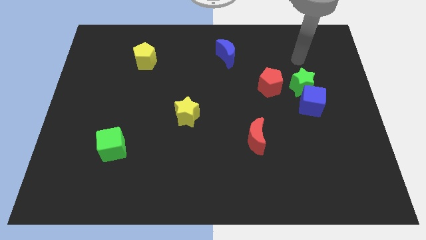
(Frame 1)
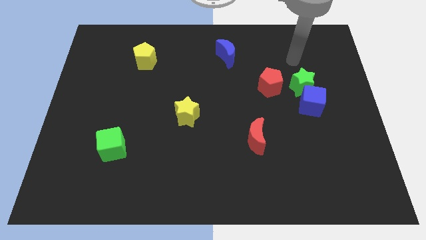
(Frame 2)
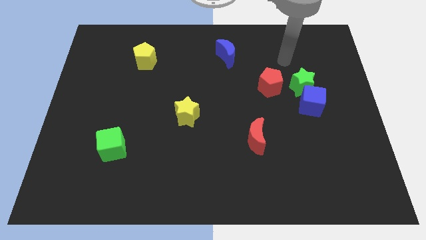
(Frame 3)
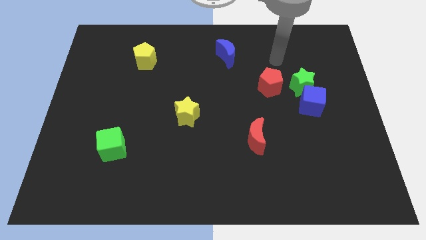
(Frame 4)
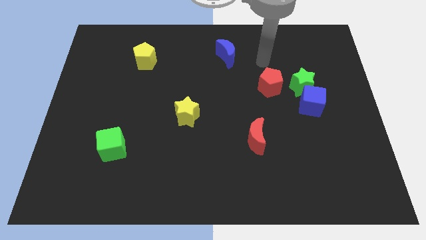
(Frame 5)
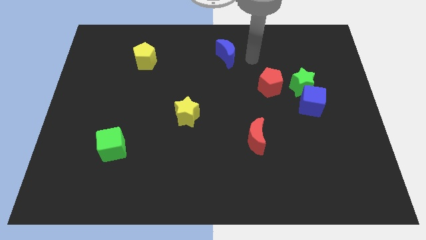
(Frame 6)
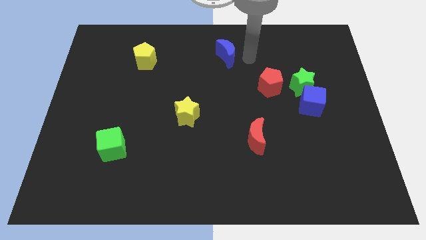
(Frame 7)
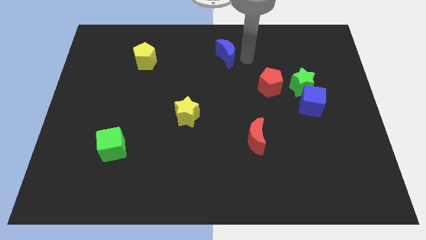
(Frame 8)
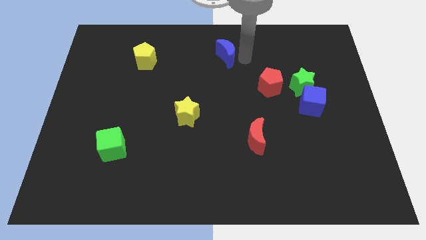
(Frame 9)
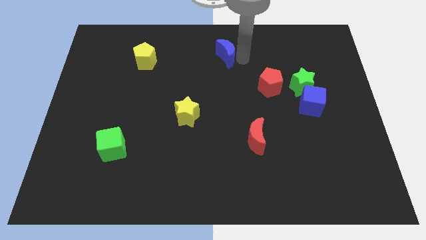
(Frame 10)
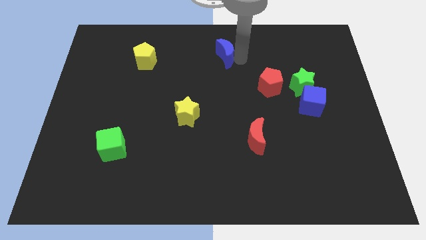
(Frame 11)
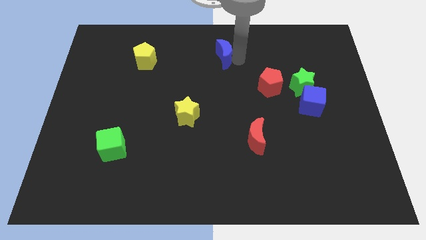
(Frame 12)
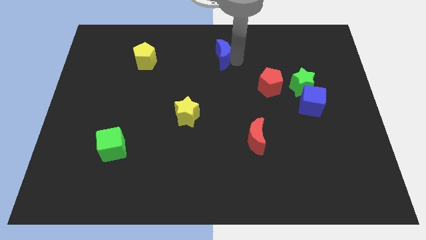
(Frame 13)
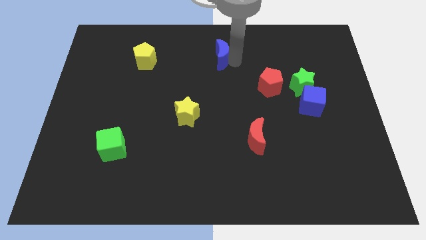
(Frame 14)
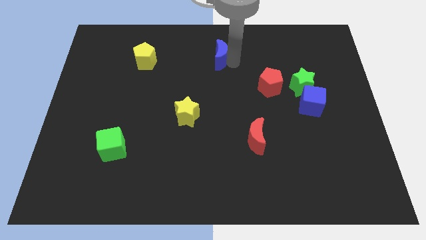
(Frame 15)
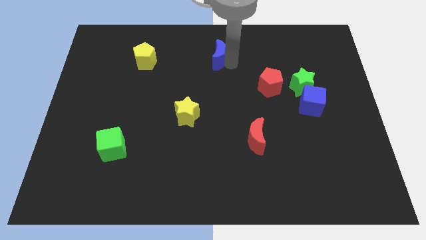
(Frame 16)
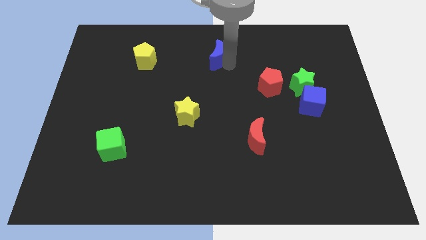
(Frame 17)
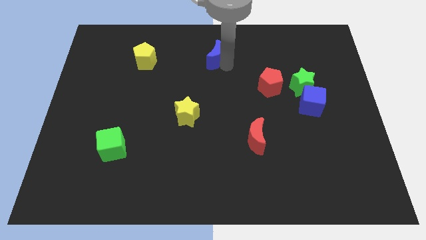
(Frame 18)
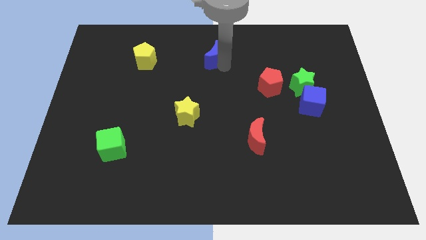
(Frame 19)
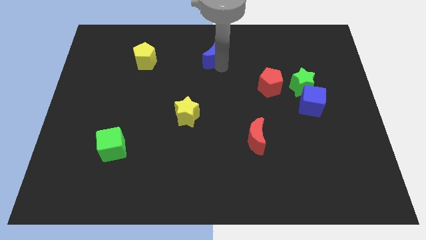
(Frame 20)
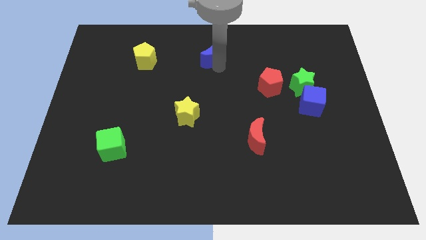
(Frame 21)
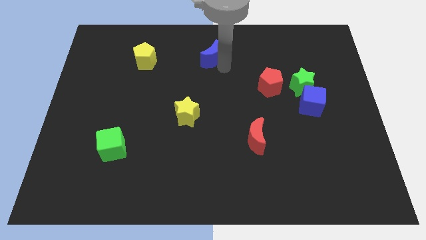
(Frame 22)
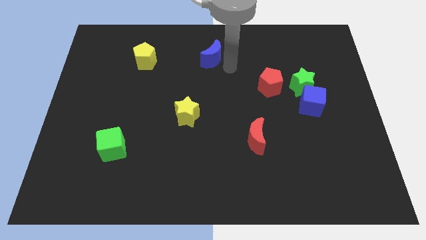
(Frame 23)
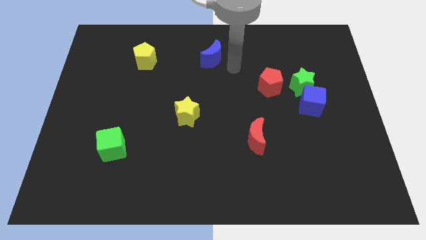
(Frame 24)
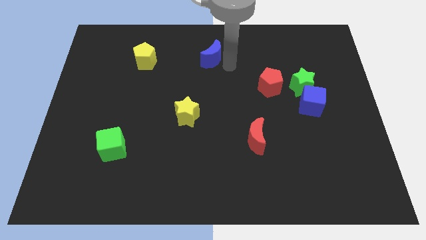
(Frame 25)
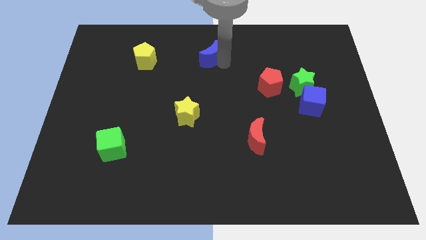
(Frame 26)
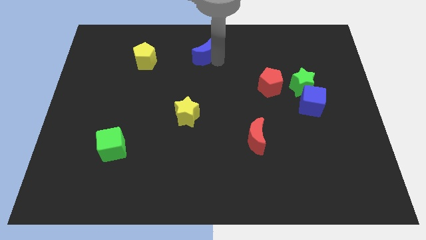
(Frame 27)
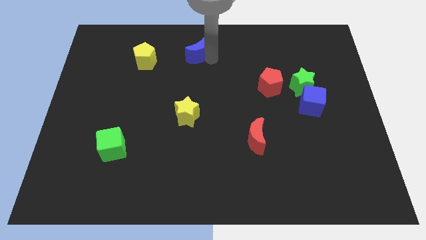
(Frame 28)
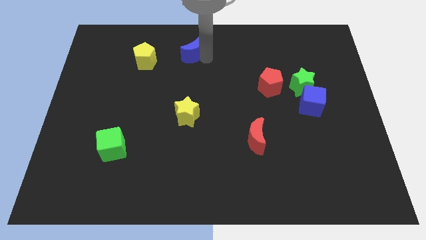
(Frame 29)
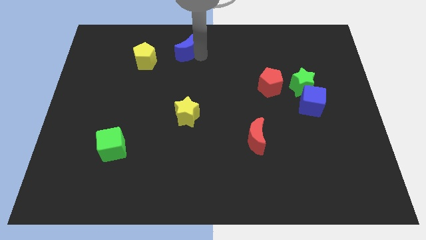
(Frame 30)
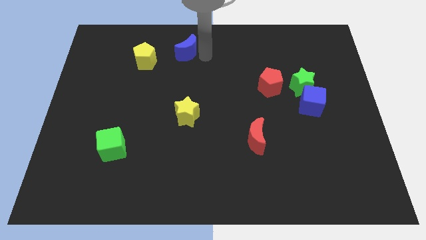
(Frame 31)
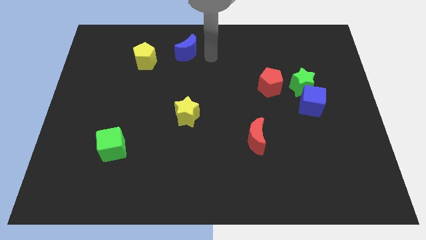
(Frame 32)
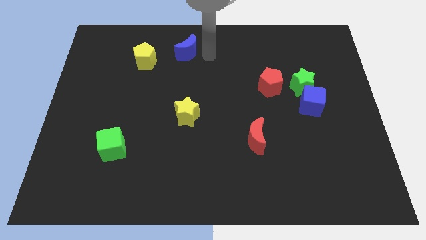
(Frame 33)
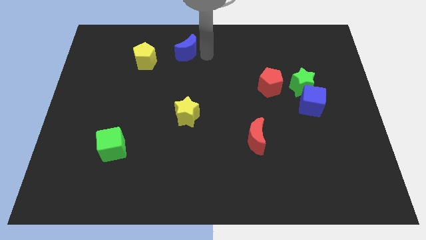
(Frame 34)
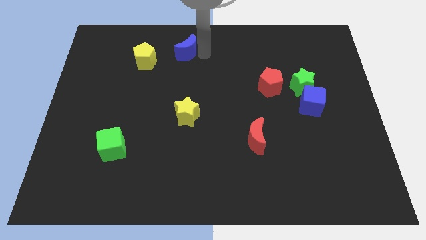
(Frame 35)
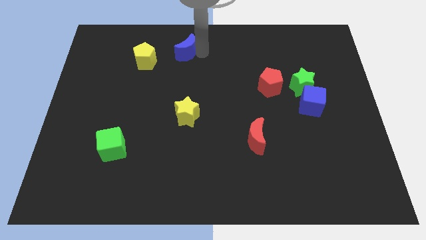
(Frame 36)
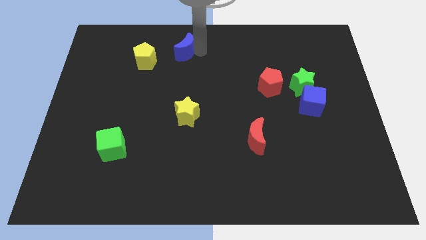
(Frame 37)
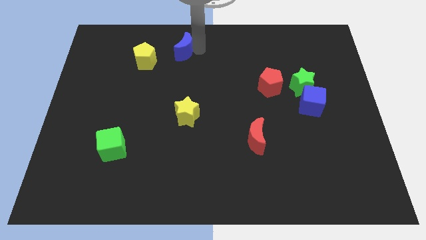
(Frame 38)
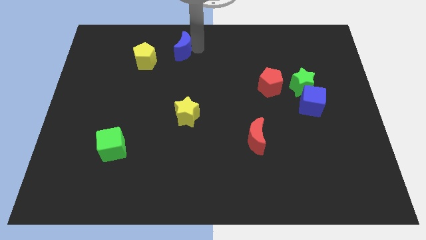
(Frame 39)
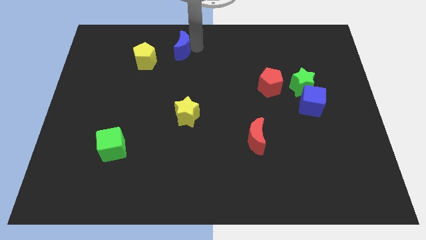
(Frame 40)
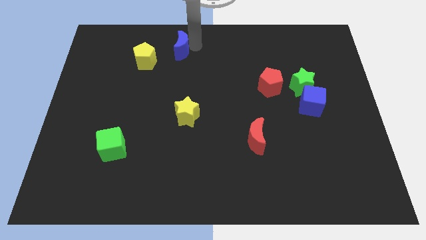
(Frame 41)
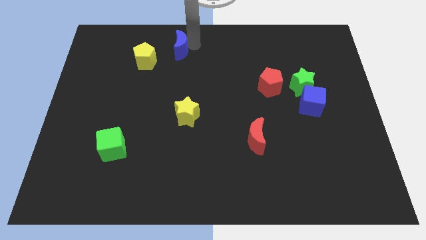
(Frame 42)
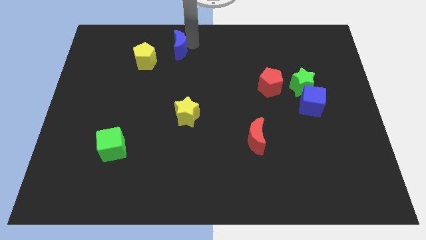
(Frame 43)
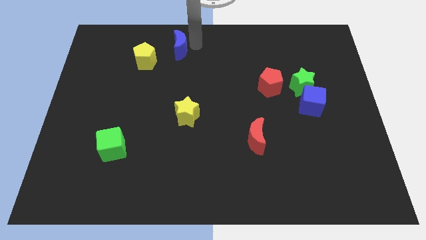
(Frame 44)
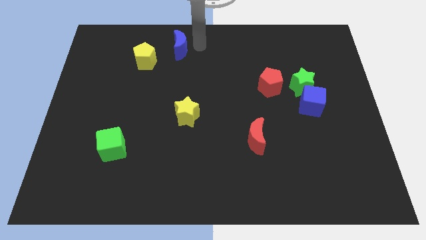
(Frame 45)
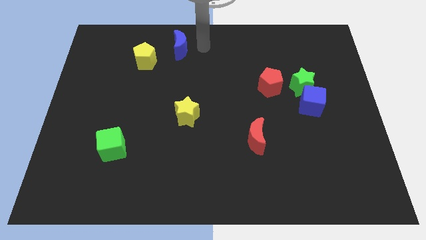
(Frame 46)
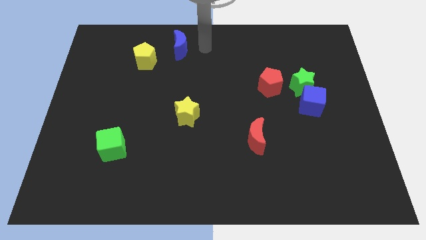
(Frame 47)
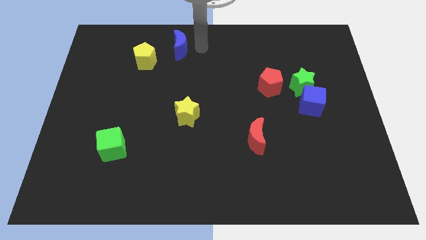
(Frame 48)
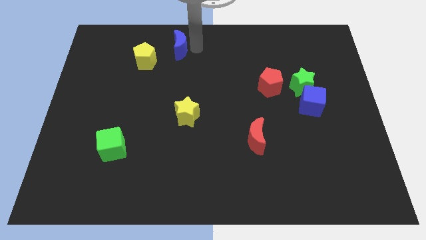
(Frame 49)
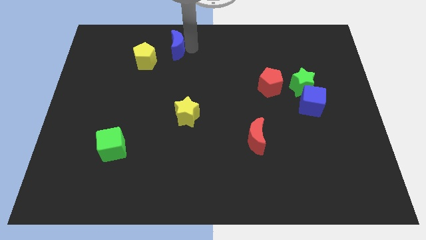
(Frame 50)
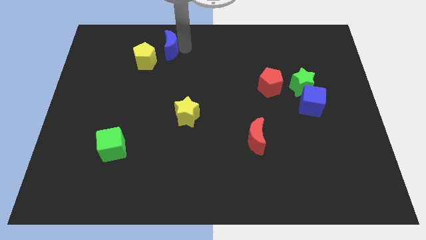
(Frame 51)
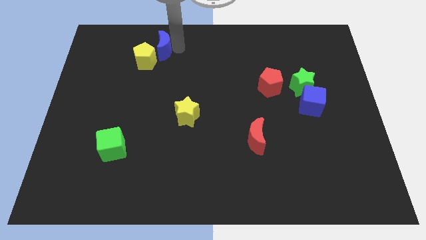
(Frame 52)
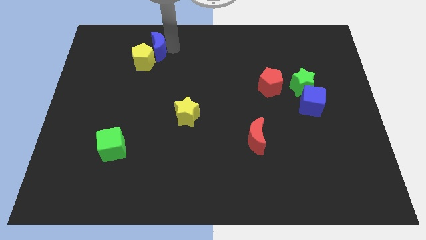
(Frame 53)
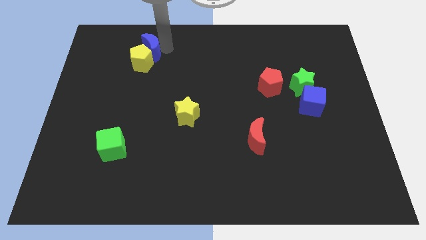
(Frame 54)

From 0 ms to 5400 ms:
move the blue moon to the left

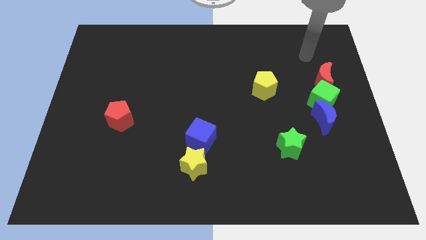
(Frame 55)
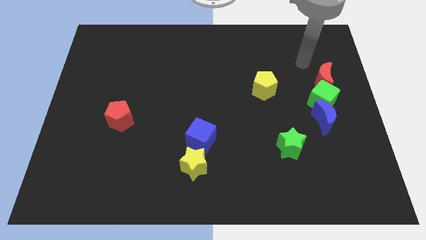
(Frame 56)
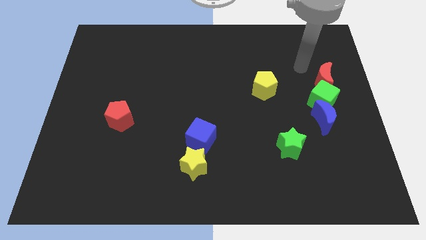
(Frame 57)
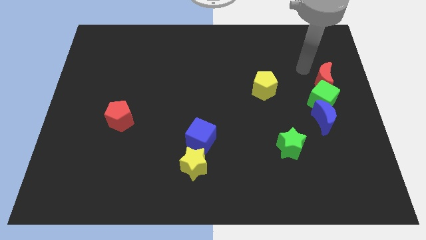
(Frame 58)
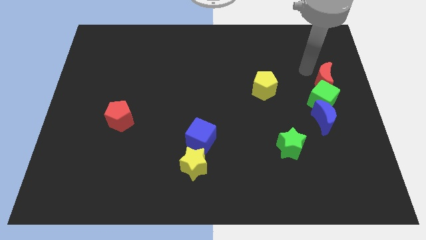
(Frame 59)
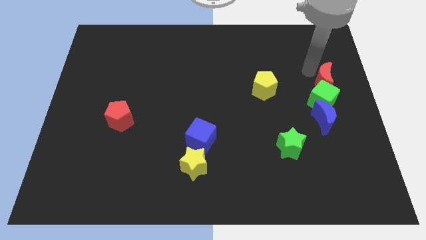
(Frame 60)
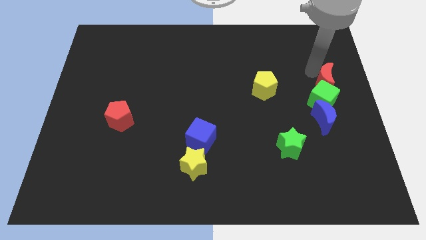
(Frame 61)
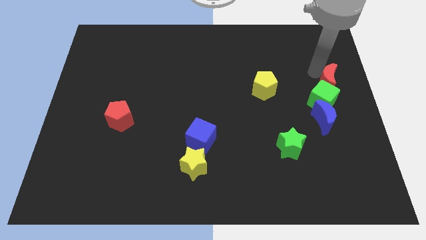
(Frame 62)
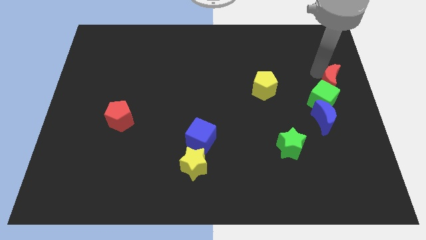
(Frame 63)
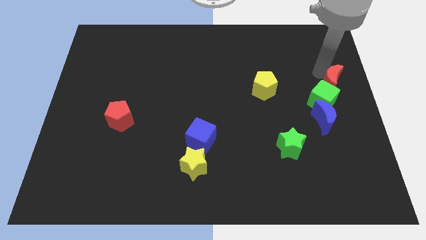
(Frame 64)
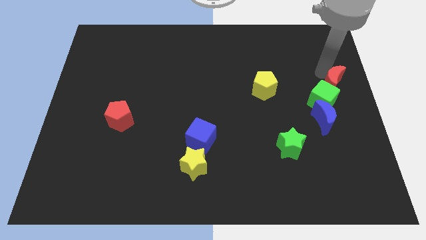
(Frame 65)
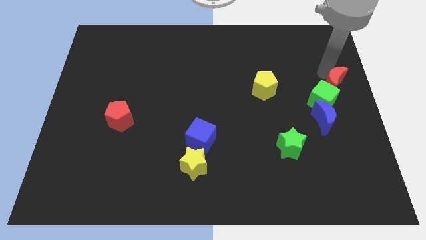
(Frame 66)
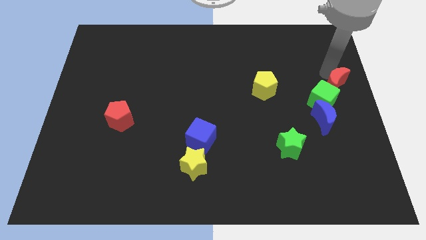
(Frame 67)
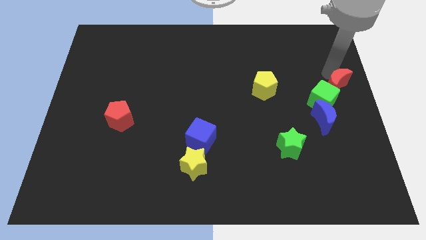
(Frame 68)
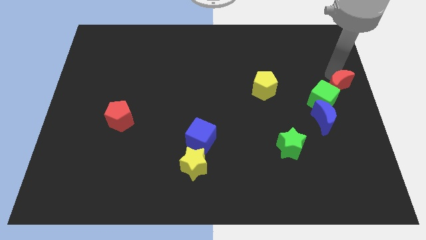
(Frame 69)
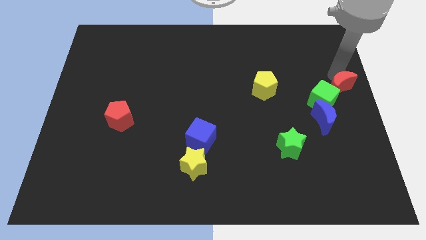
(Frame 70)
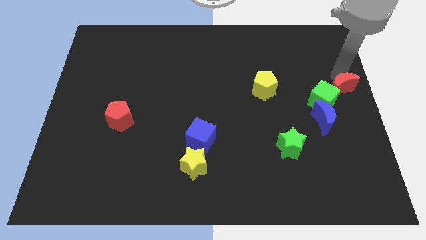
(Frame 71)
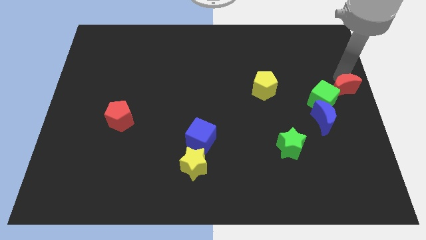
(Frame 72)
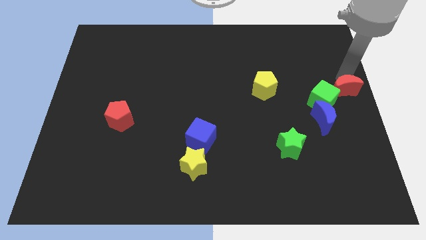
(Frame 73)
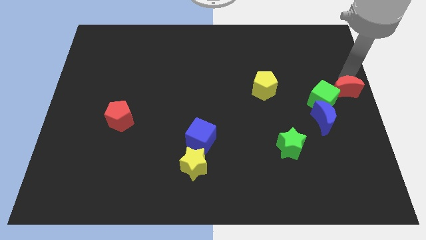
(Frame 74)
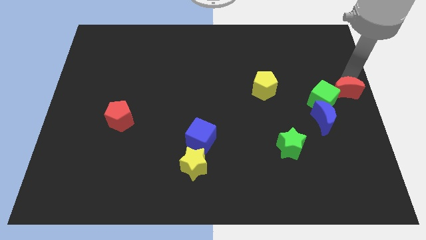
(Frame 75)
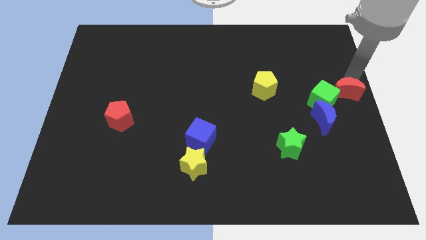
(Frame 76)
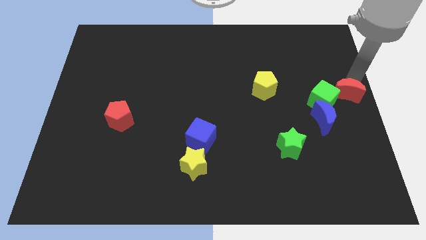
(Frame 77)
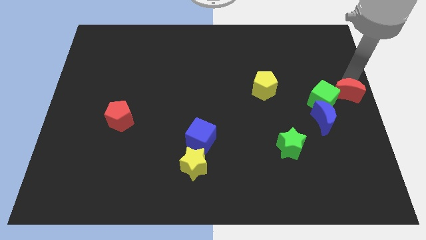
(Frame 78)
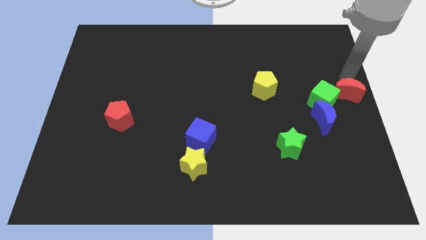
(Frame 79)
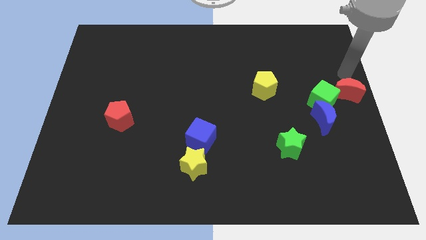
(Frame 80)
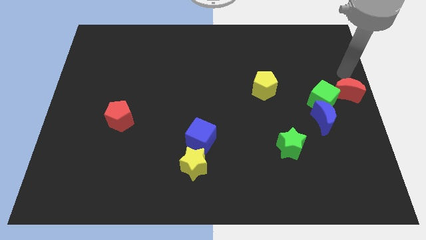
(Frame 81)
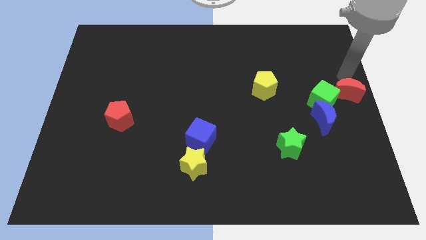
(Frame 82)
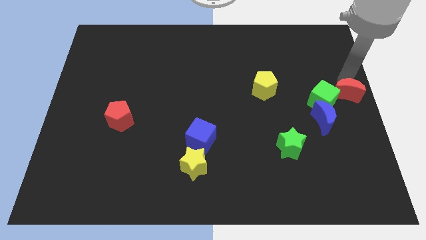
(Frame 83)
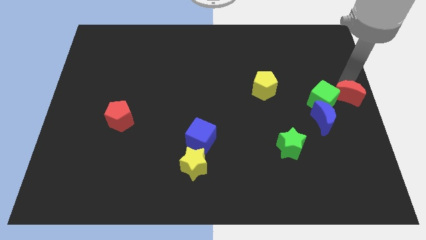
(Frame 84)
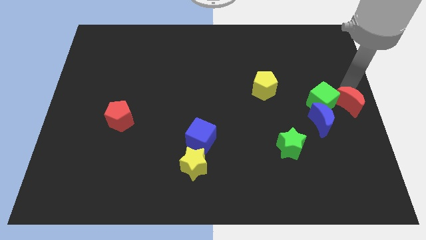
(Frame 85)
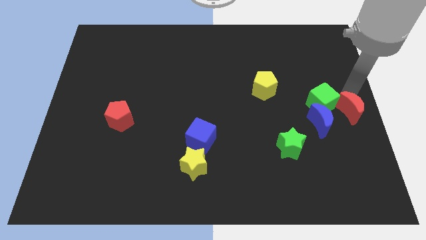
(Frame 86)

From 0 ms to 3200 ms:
move the red moon slightly downwards
